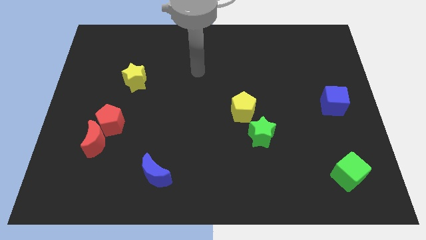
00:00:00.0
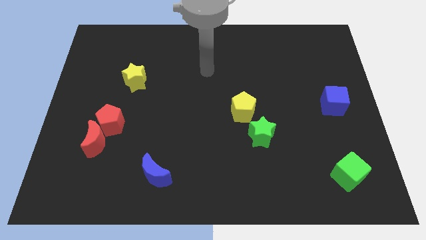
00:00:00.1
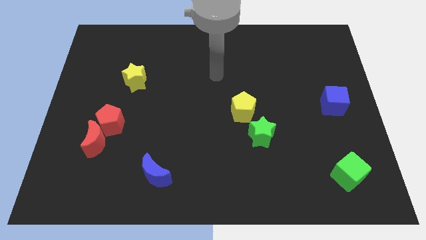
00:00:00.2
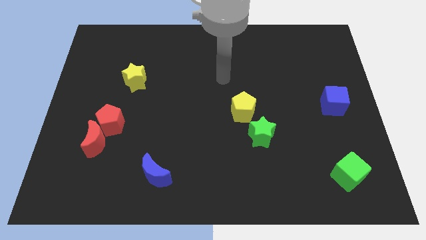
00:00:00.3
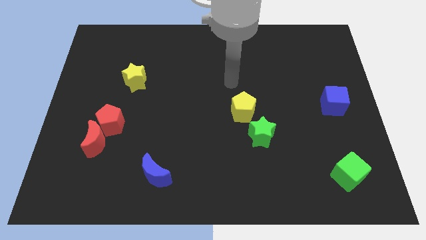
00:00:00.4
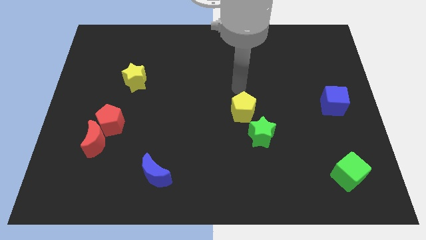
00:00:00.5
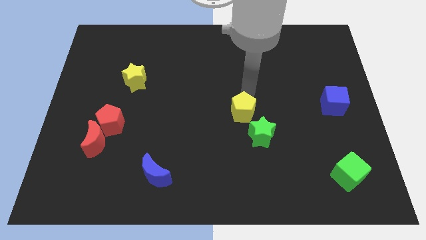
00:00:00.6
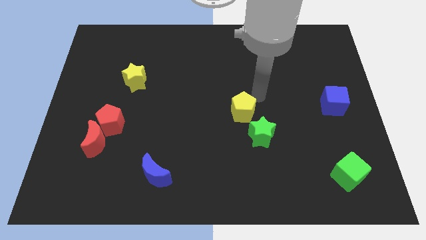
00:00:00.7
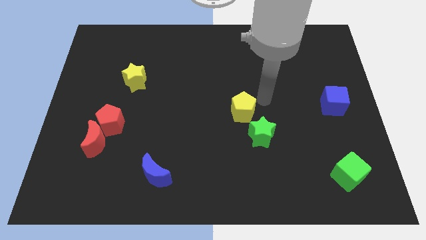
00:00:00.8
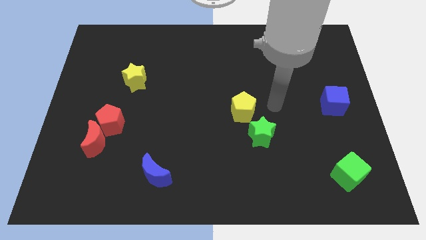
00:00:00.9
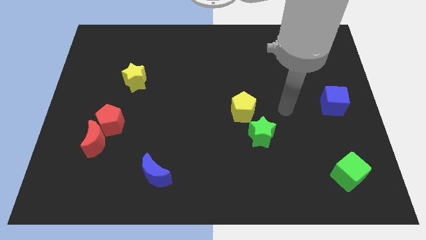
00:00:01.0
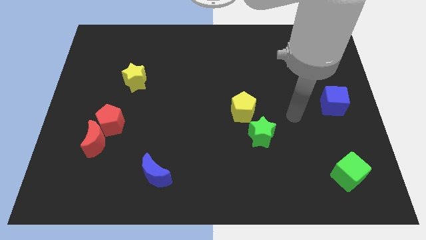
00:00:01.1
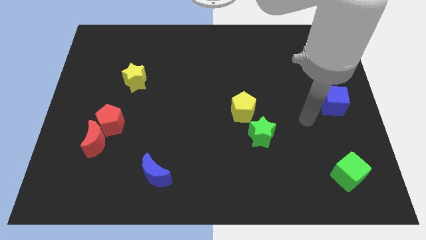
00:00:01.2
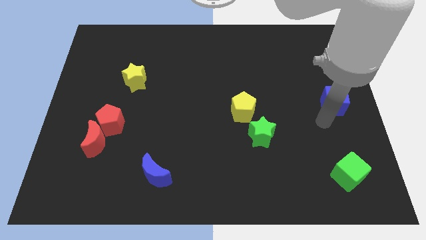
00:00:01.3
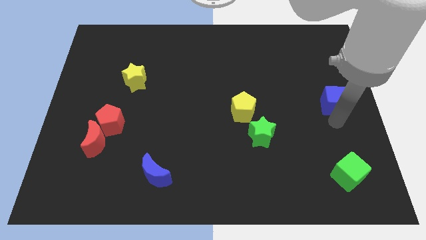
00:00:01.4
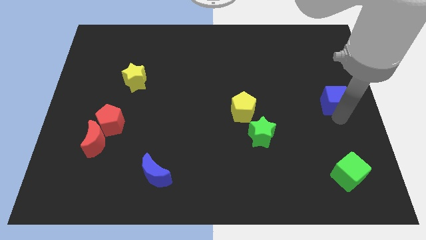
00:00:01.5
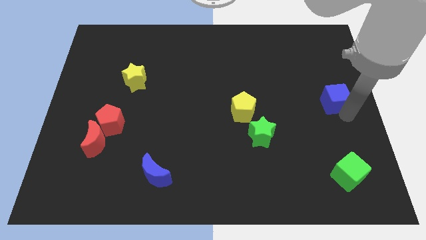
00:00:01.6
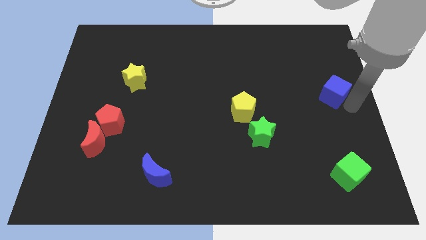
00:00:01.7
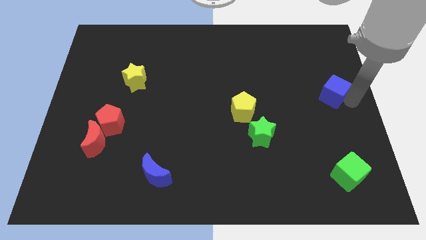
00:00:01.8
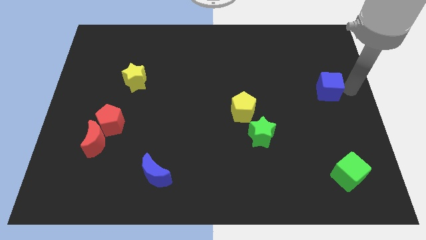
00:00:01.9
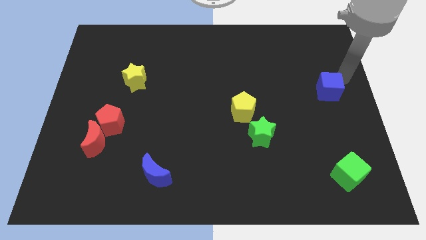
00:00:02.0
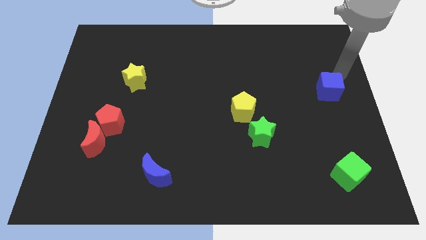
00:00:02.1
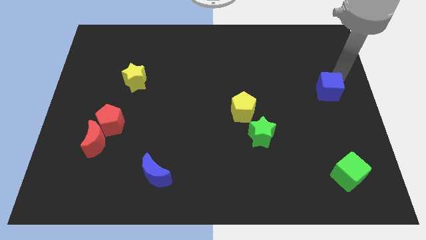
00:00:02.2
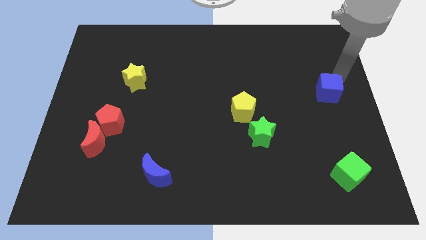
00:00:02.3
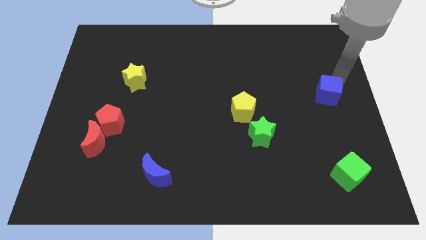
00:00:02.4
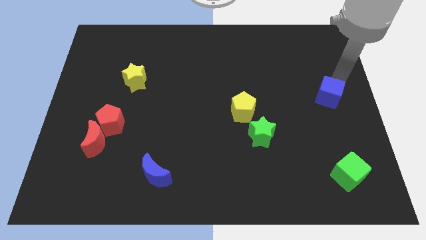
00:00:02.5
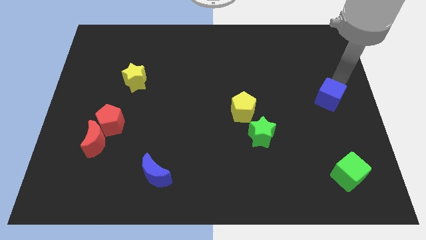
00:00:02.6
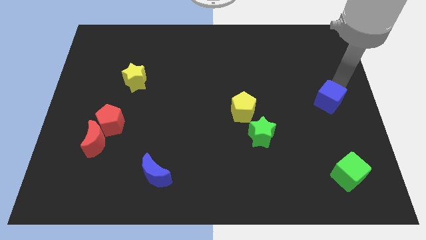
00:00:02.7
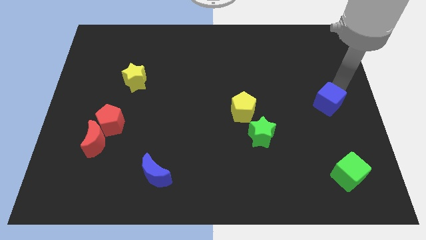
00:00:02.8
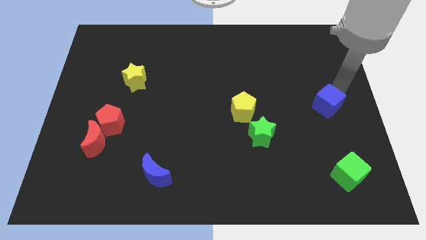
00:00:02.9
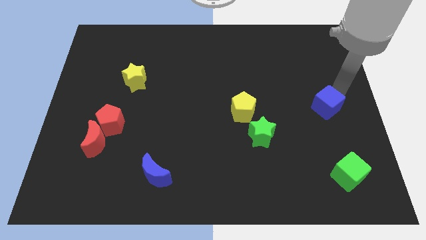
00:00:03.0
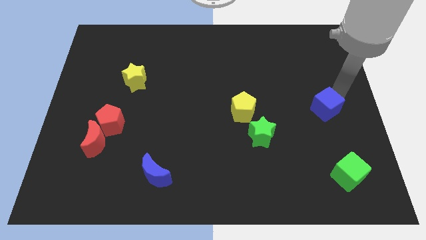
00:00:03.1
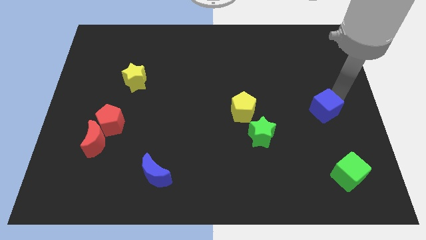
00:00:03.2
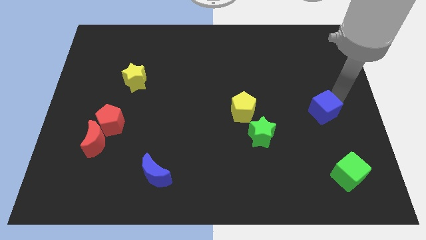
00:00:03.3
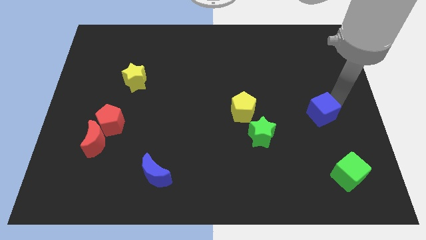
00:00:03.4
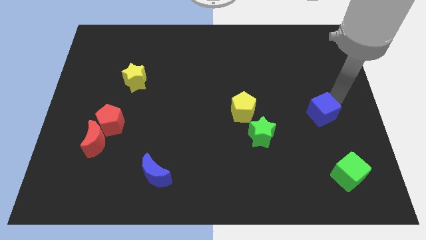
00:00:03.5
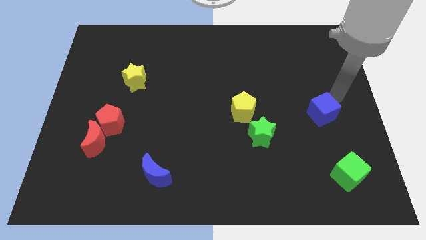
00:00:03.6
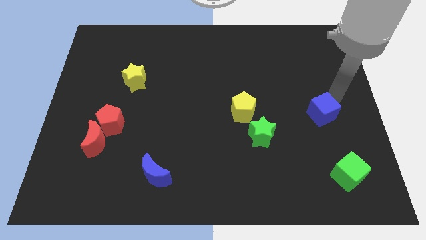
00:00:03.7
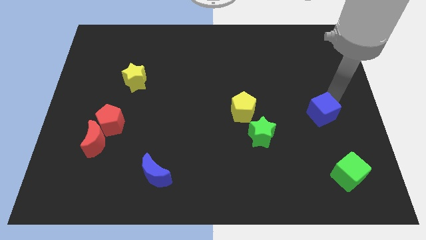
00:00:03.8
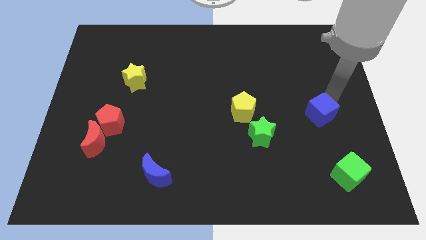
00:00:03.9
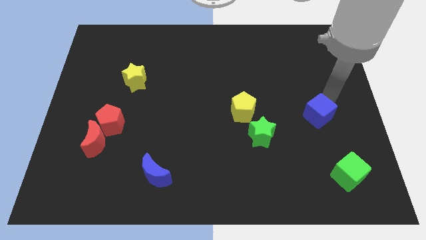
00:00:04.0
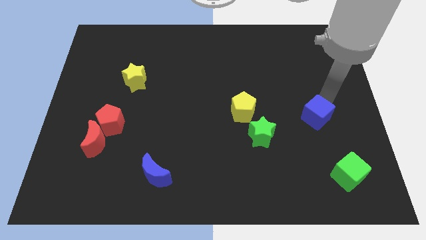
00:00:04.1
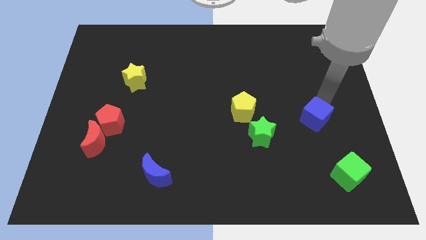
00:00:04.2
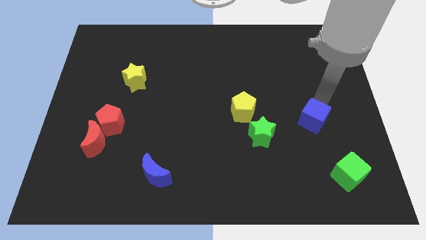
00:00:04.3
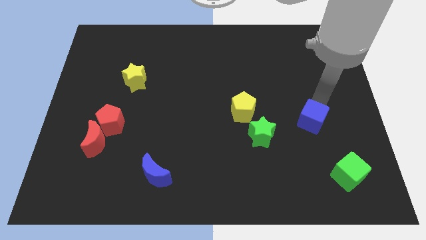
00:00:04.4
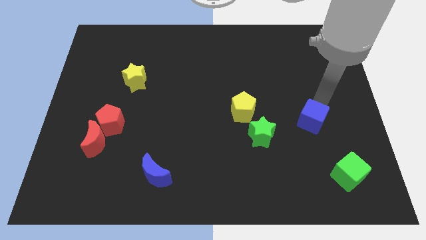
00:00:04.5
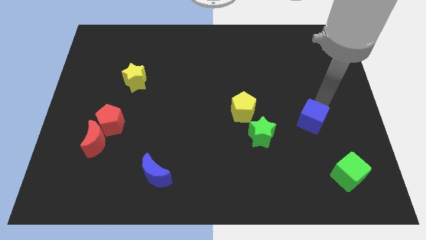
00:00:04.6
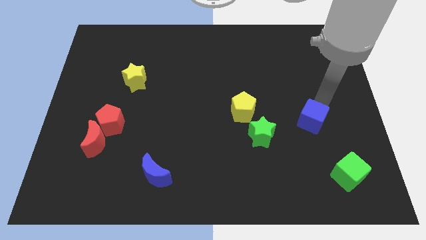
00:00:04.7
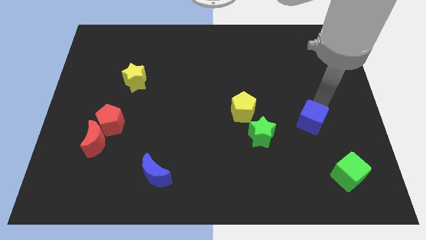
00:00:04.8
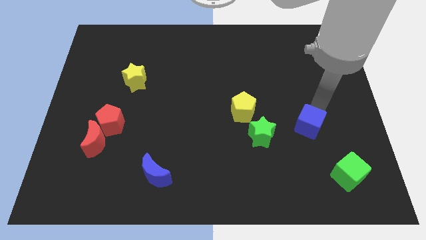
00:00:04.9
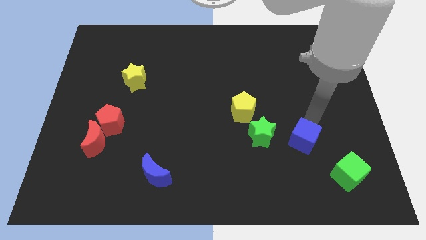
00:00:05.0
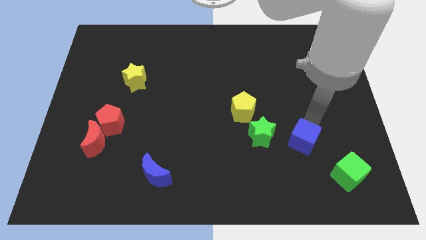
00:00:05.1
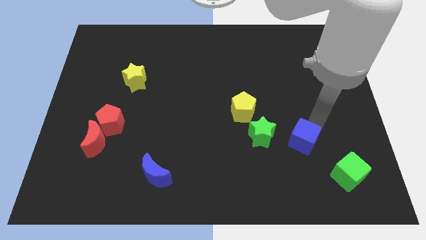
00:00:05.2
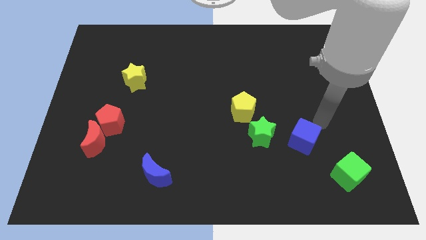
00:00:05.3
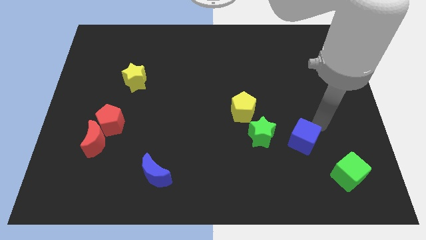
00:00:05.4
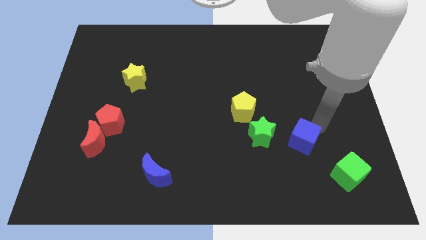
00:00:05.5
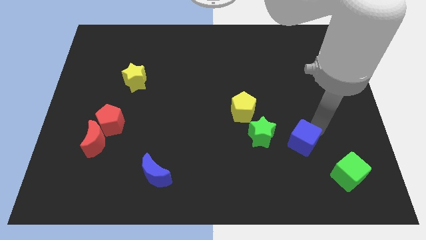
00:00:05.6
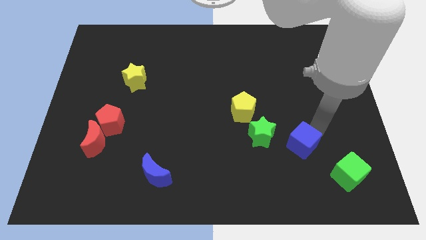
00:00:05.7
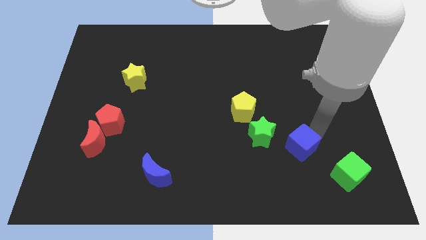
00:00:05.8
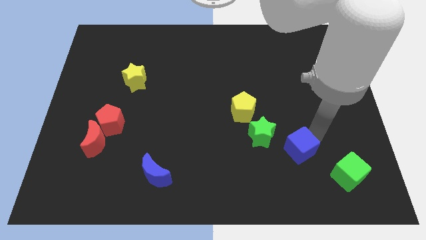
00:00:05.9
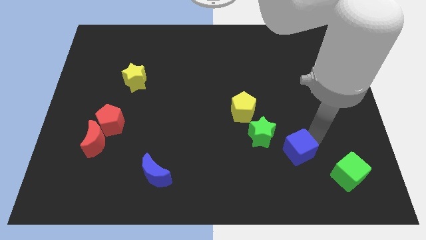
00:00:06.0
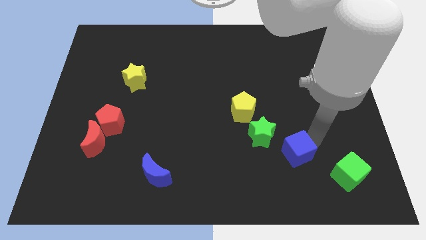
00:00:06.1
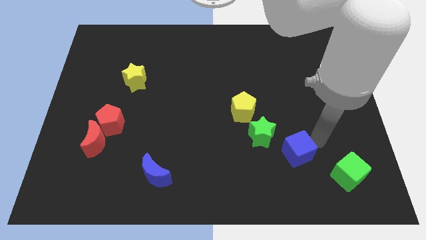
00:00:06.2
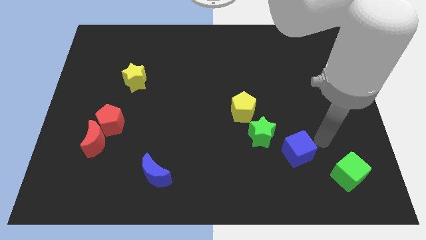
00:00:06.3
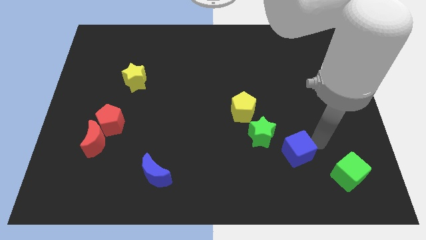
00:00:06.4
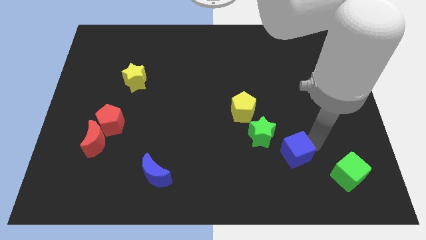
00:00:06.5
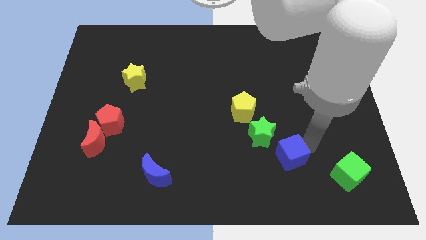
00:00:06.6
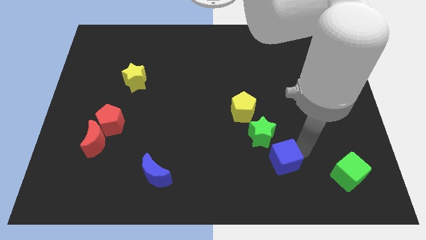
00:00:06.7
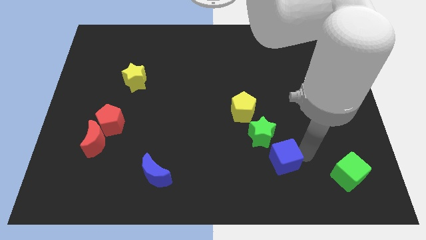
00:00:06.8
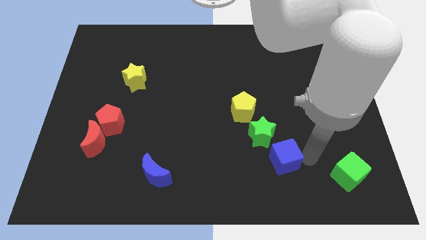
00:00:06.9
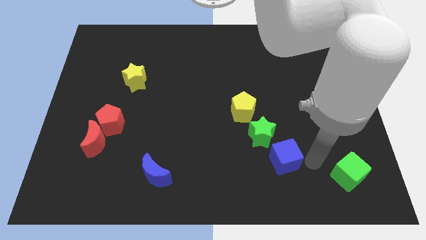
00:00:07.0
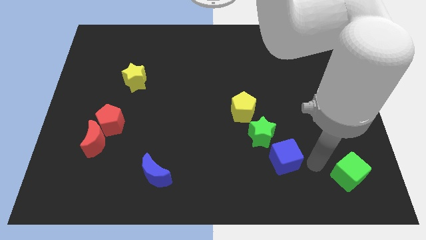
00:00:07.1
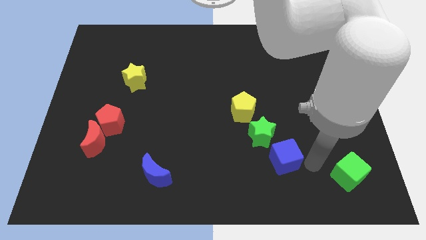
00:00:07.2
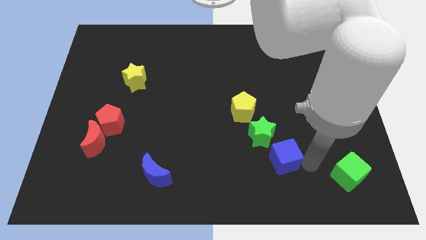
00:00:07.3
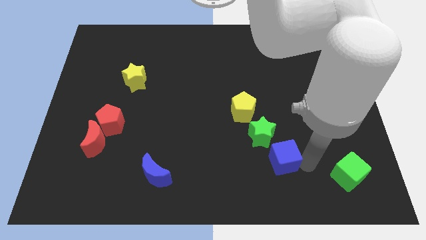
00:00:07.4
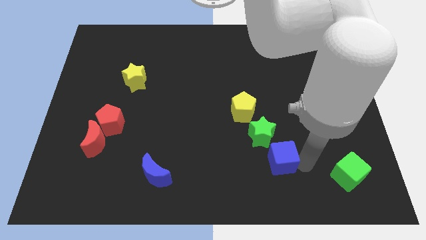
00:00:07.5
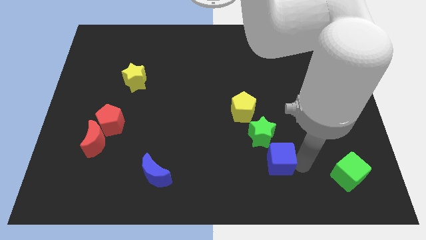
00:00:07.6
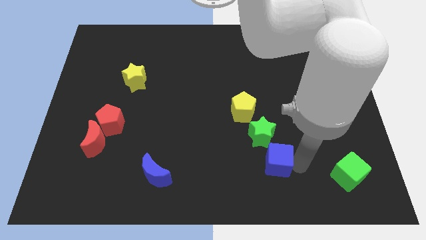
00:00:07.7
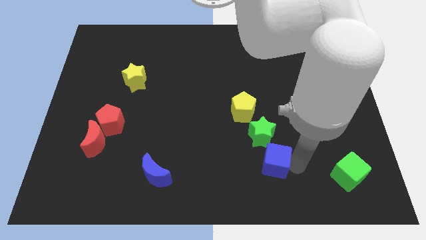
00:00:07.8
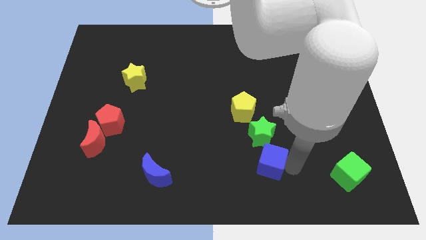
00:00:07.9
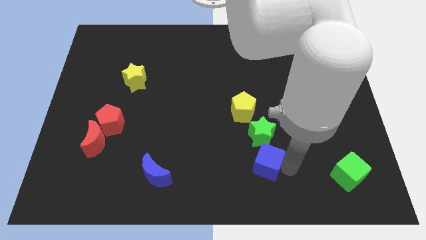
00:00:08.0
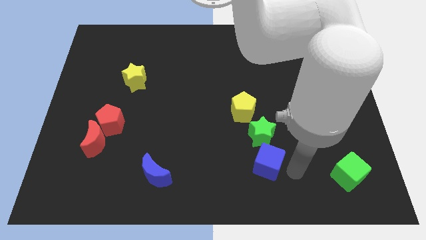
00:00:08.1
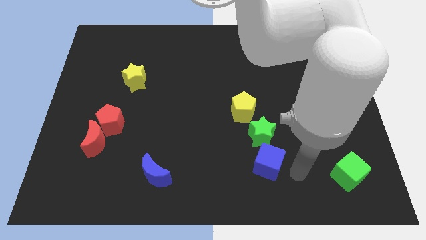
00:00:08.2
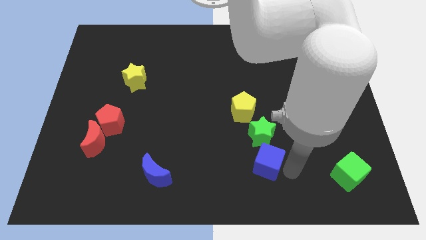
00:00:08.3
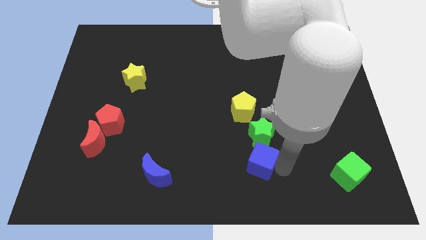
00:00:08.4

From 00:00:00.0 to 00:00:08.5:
push the blue cube to the bottom left of the green star
